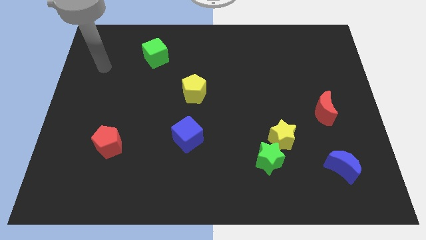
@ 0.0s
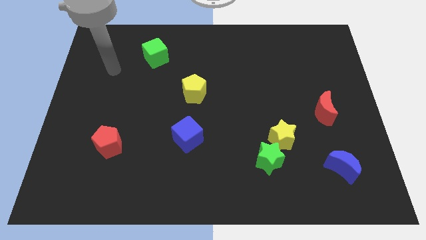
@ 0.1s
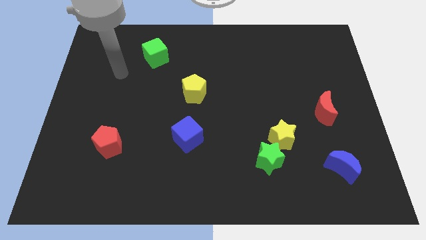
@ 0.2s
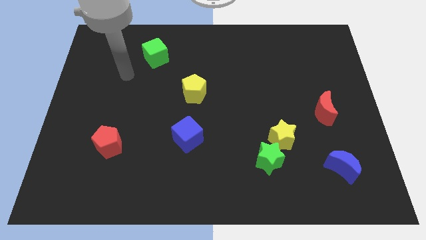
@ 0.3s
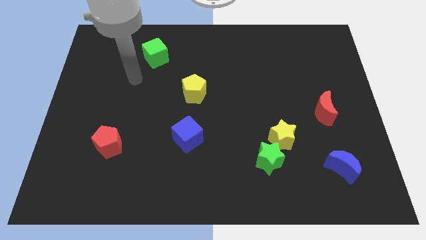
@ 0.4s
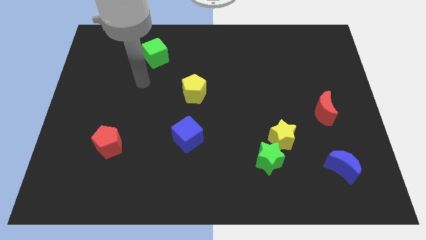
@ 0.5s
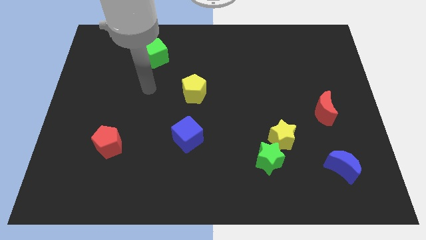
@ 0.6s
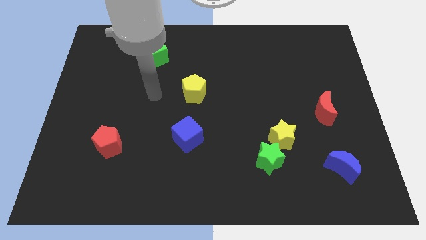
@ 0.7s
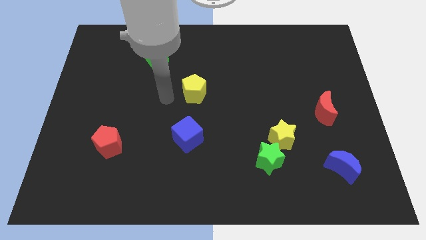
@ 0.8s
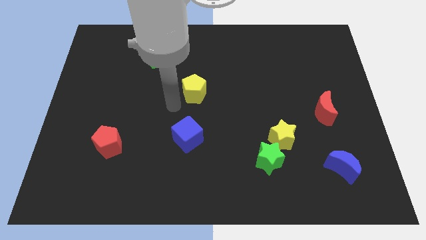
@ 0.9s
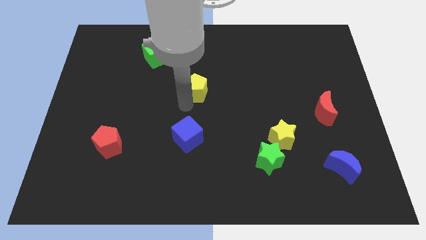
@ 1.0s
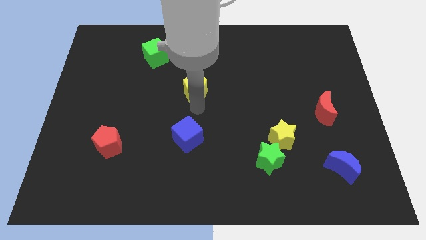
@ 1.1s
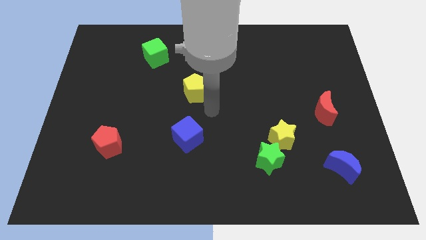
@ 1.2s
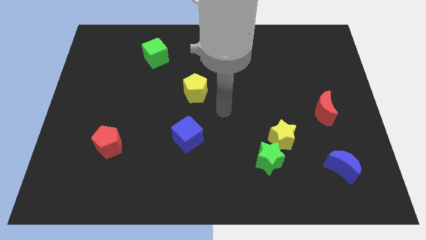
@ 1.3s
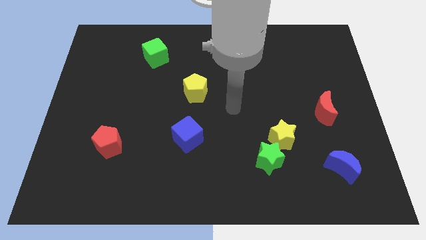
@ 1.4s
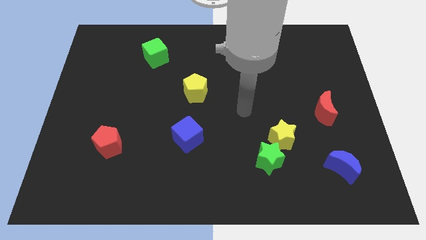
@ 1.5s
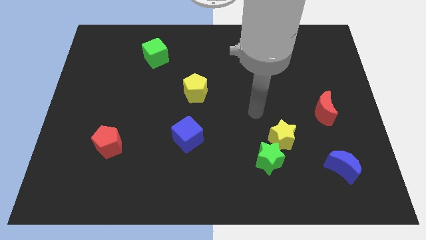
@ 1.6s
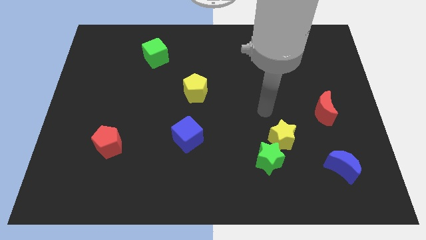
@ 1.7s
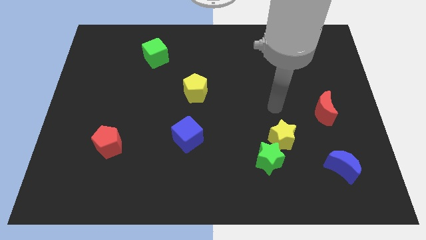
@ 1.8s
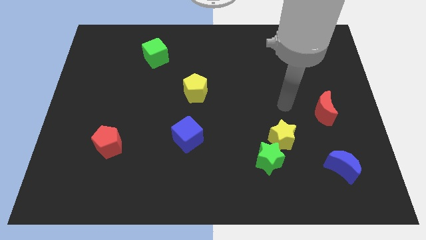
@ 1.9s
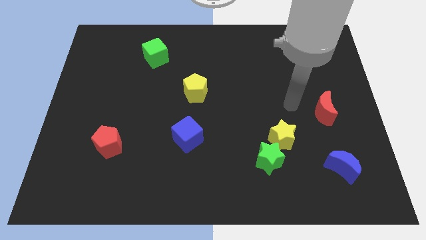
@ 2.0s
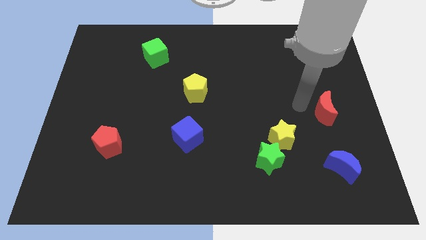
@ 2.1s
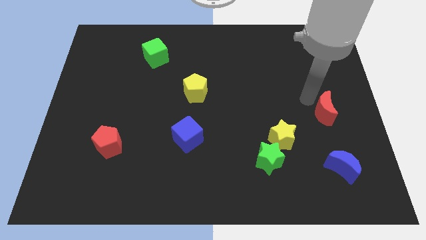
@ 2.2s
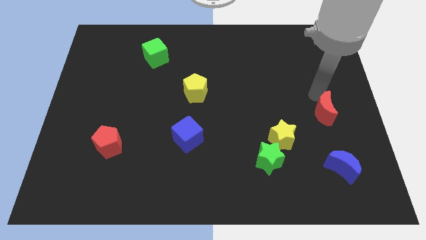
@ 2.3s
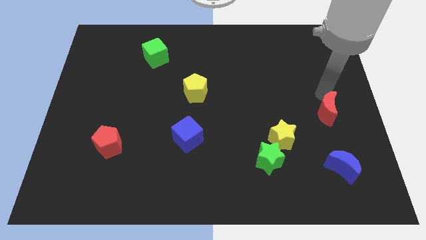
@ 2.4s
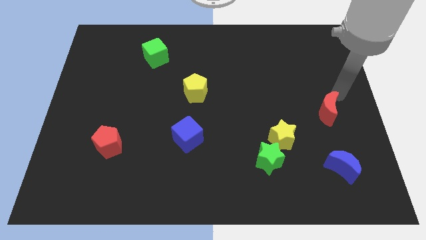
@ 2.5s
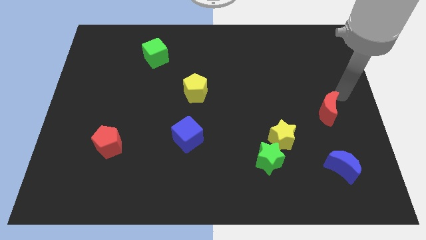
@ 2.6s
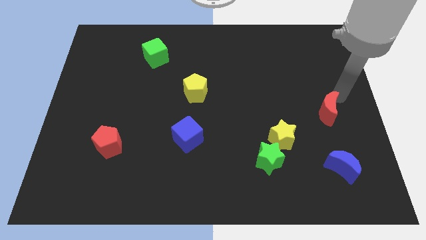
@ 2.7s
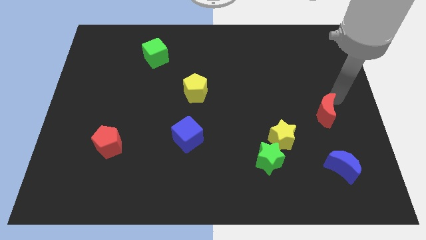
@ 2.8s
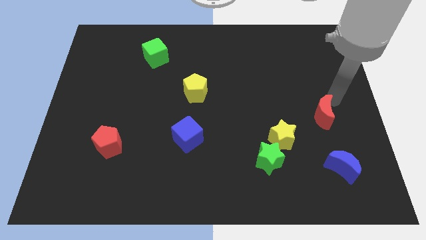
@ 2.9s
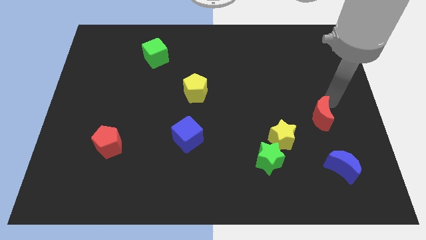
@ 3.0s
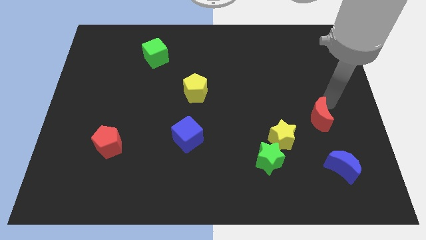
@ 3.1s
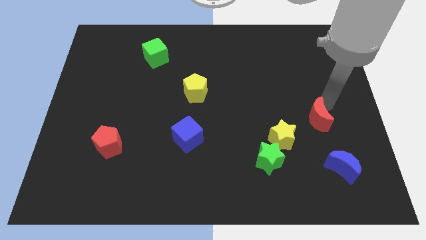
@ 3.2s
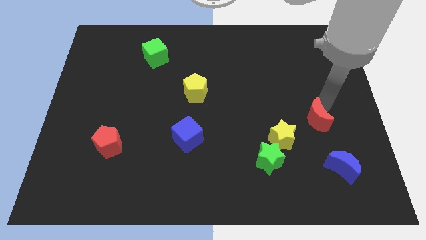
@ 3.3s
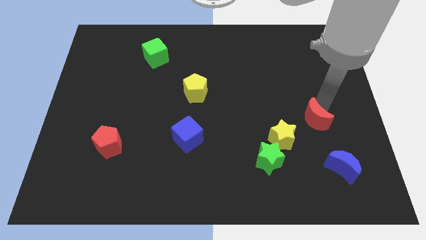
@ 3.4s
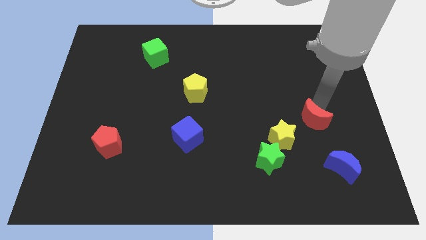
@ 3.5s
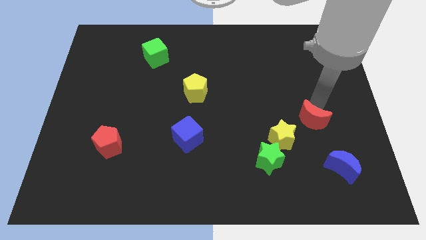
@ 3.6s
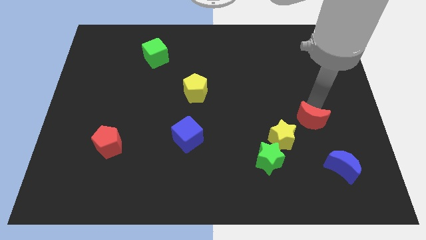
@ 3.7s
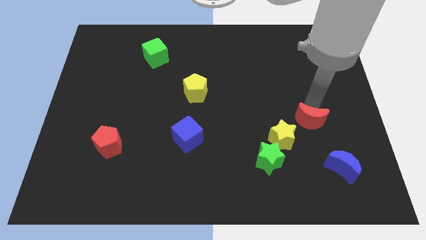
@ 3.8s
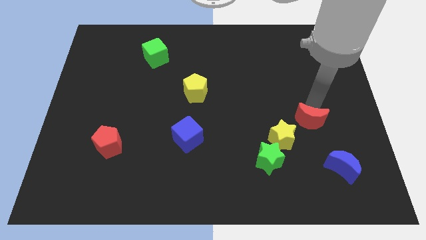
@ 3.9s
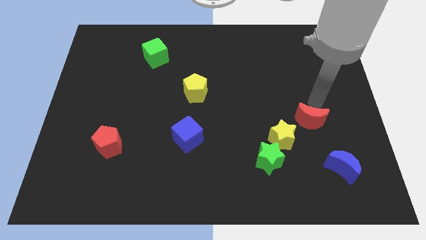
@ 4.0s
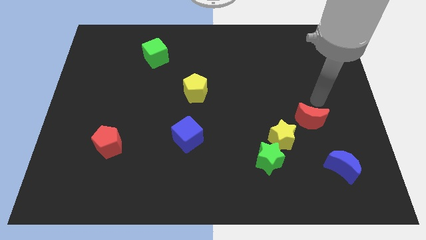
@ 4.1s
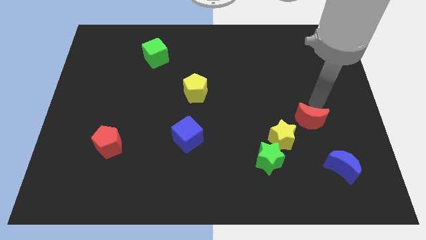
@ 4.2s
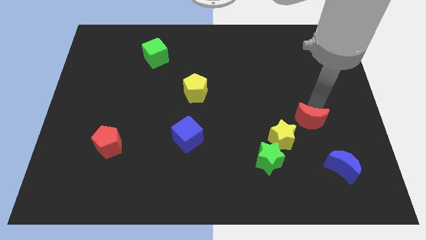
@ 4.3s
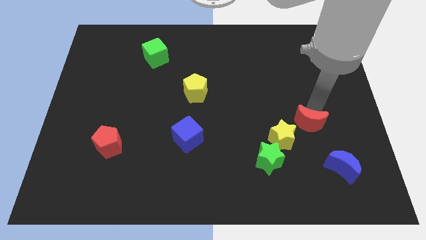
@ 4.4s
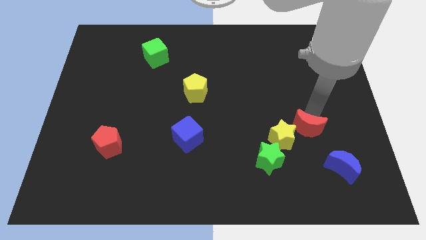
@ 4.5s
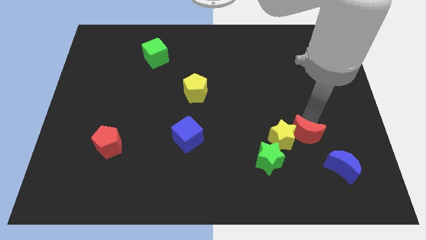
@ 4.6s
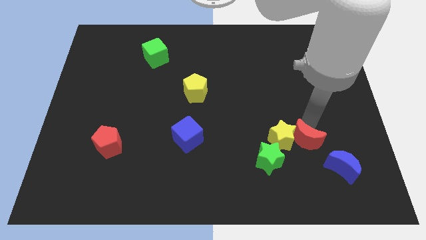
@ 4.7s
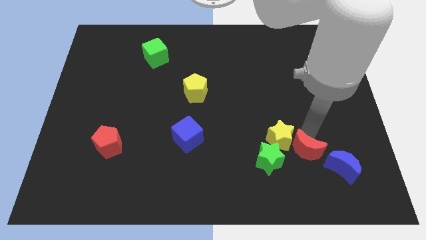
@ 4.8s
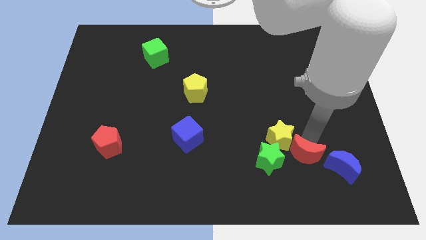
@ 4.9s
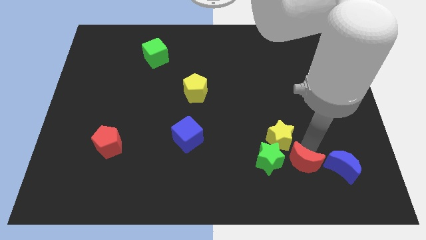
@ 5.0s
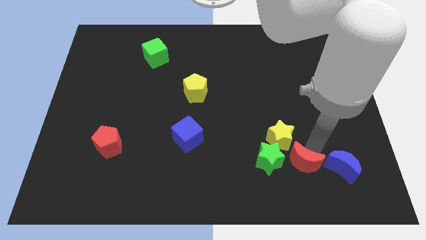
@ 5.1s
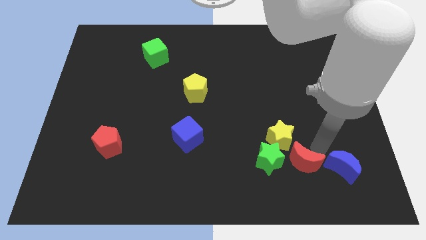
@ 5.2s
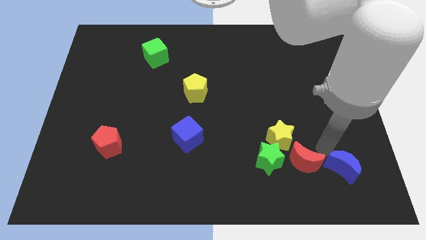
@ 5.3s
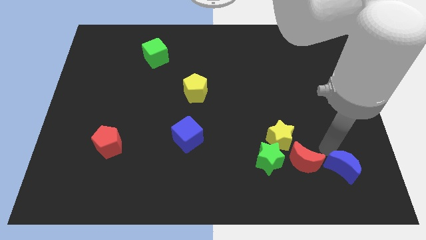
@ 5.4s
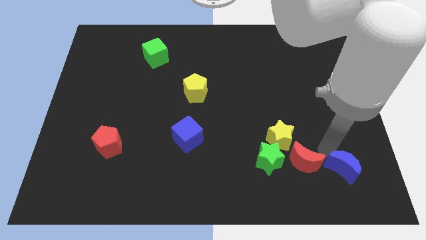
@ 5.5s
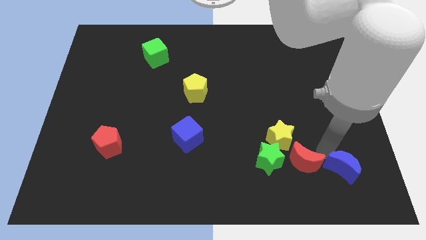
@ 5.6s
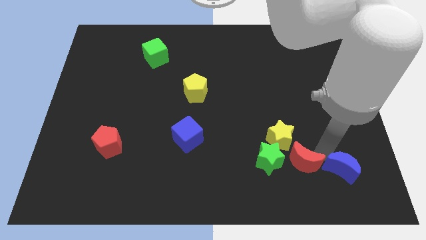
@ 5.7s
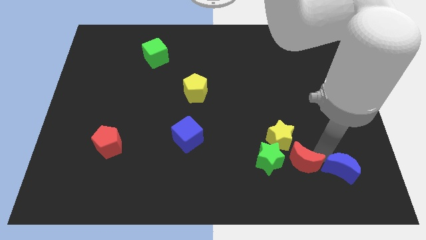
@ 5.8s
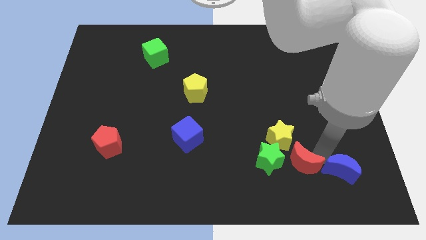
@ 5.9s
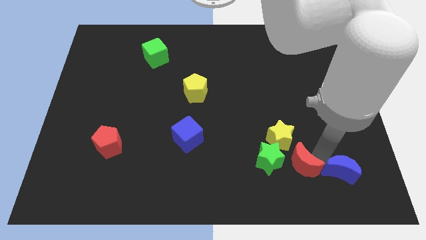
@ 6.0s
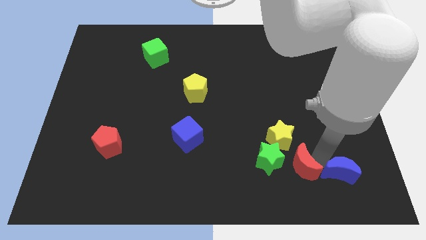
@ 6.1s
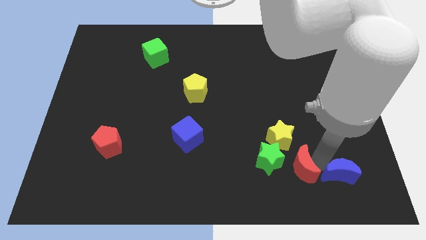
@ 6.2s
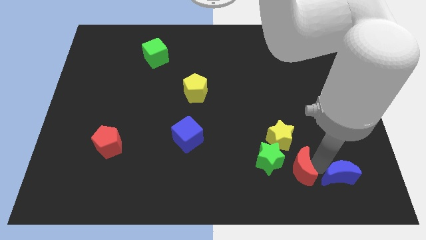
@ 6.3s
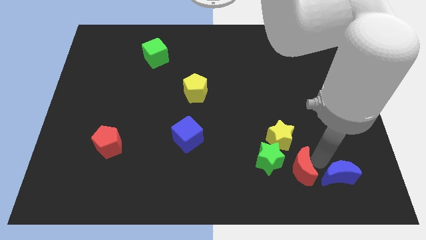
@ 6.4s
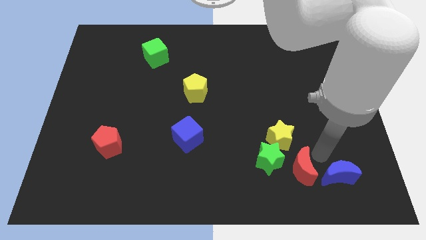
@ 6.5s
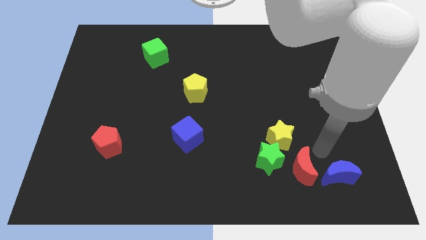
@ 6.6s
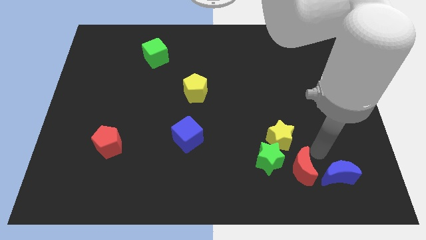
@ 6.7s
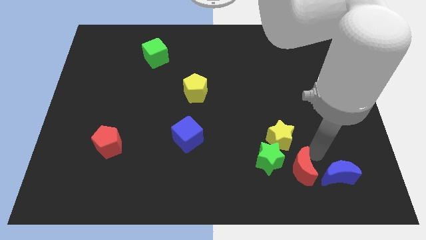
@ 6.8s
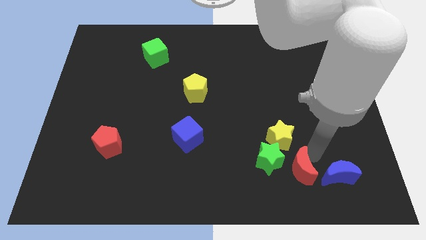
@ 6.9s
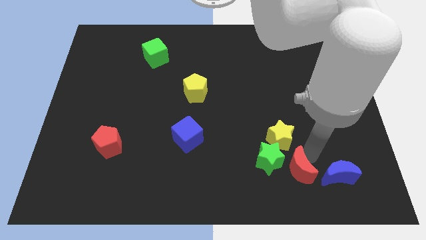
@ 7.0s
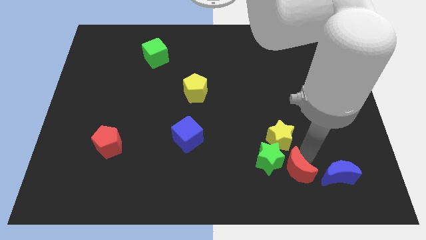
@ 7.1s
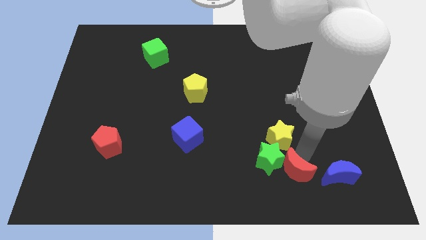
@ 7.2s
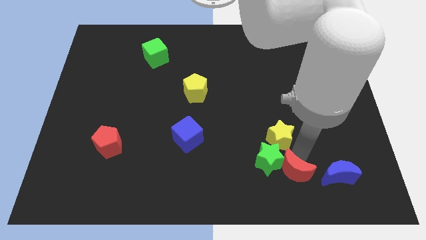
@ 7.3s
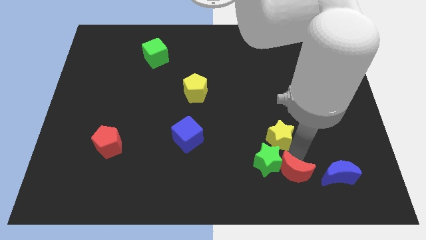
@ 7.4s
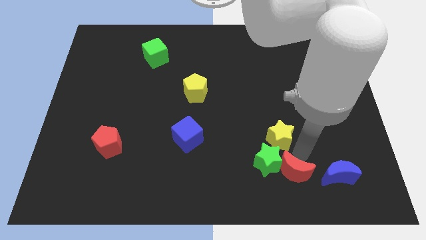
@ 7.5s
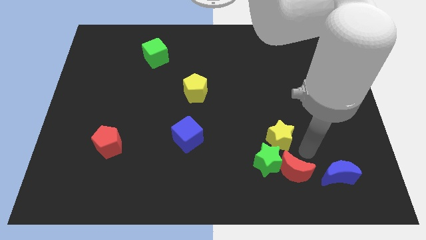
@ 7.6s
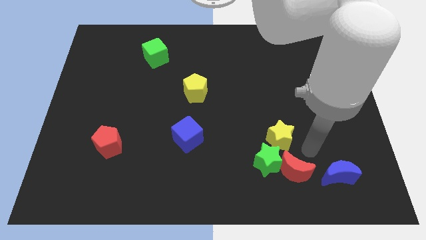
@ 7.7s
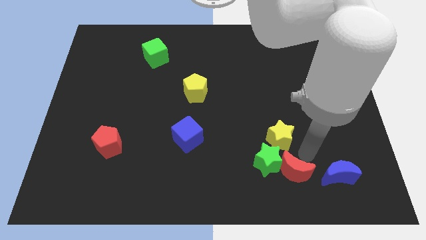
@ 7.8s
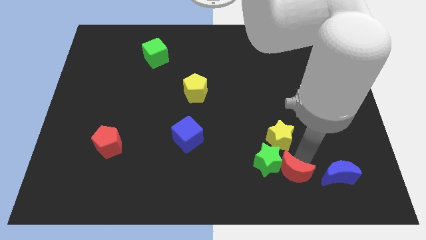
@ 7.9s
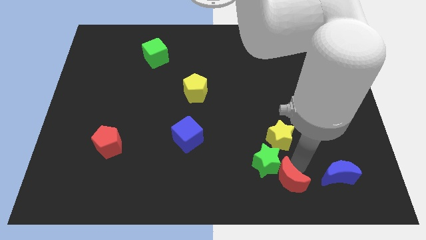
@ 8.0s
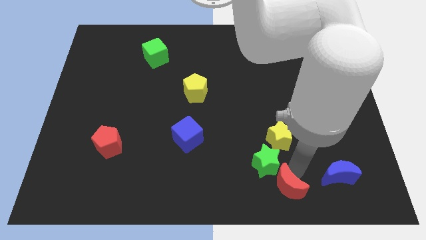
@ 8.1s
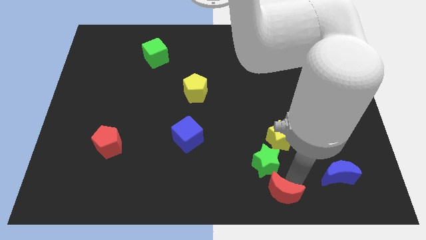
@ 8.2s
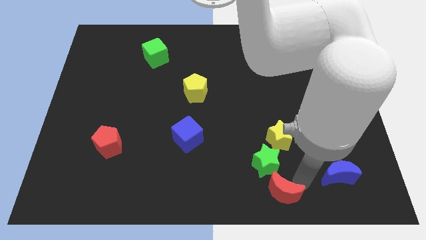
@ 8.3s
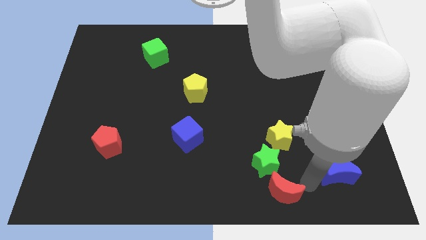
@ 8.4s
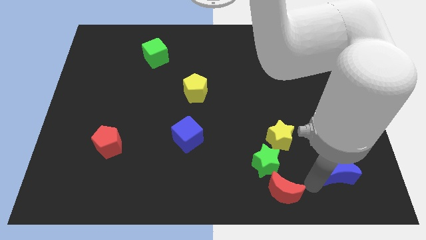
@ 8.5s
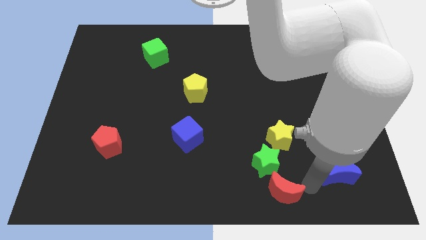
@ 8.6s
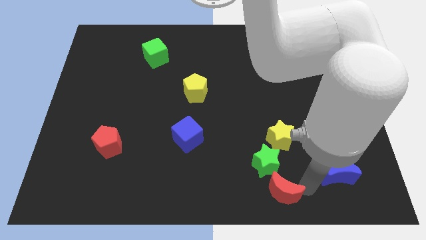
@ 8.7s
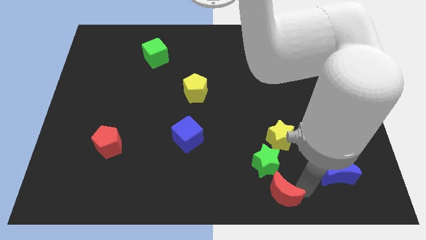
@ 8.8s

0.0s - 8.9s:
slide the red moon to the bottom
